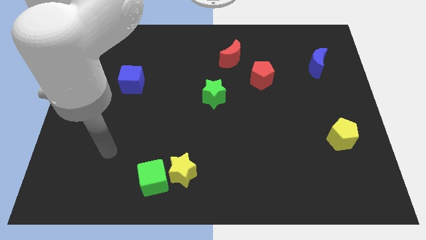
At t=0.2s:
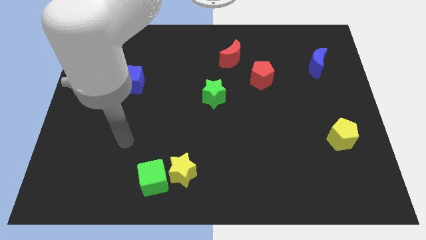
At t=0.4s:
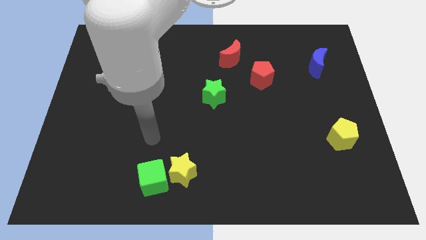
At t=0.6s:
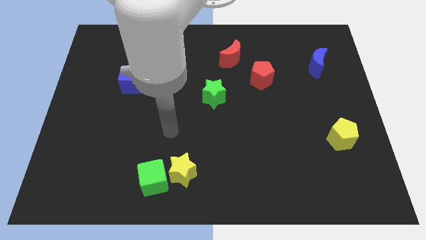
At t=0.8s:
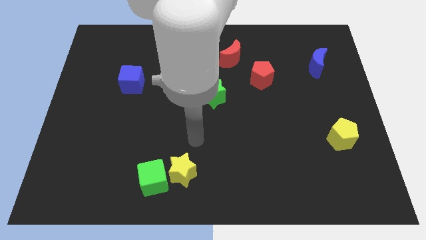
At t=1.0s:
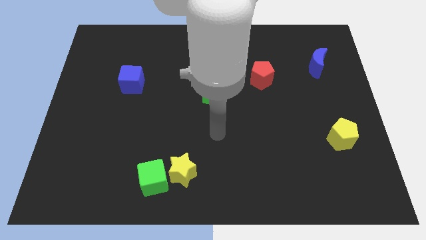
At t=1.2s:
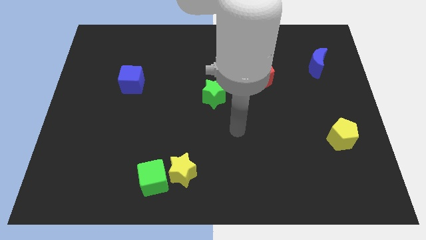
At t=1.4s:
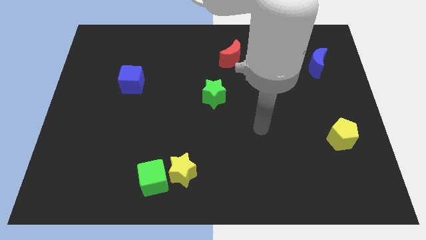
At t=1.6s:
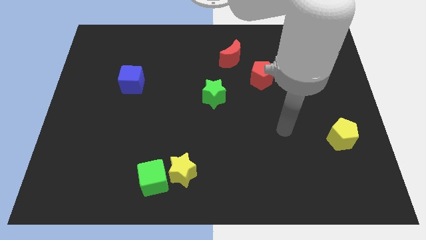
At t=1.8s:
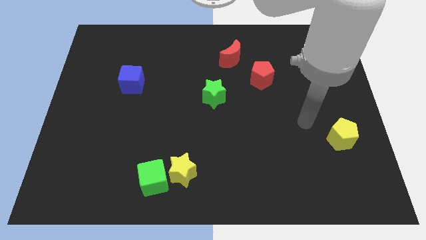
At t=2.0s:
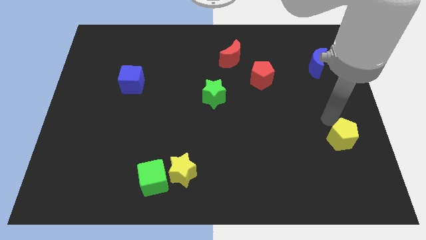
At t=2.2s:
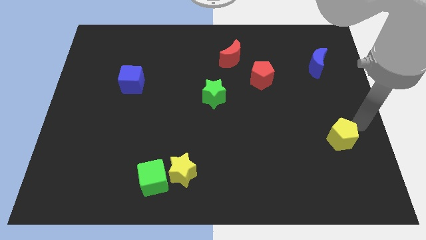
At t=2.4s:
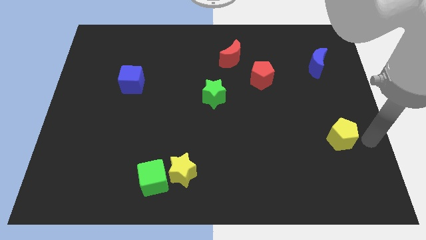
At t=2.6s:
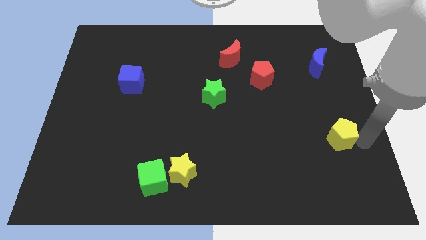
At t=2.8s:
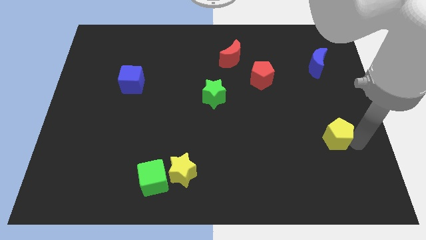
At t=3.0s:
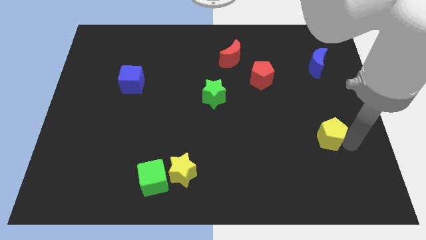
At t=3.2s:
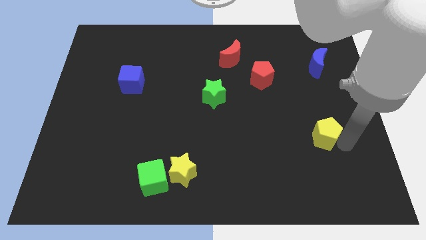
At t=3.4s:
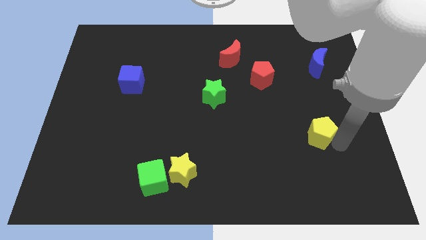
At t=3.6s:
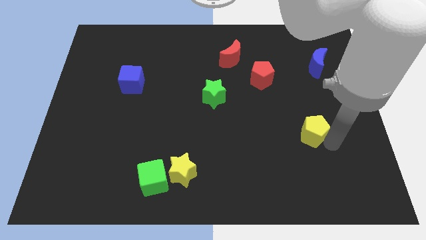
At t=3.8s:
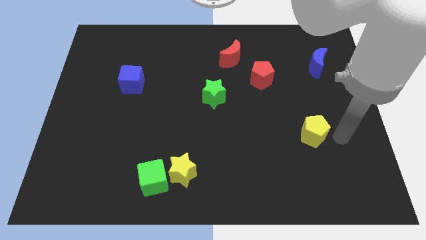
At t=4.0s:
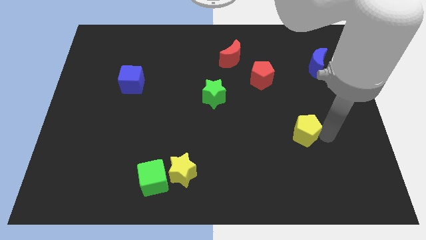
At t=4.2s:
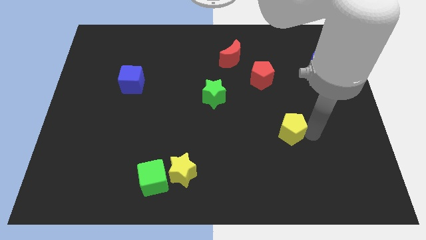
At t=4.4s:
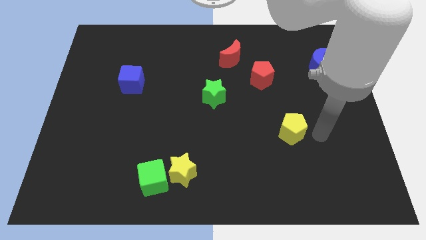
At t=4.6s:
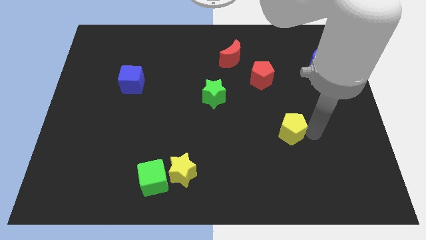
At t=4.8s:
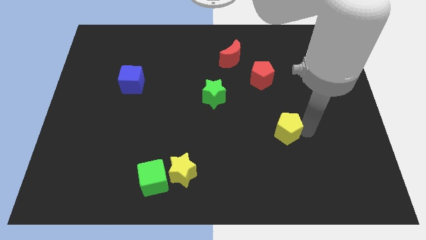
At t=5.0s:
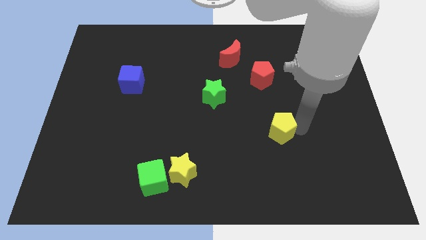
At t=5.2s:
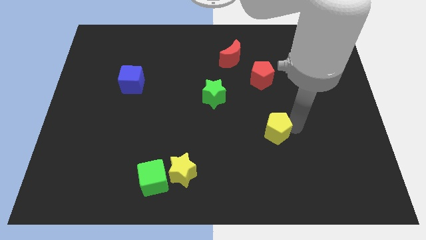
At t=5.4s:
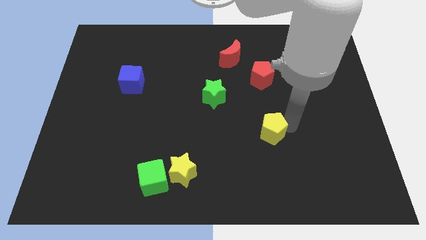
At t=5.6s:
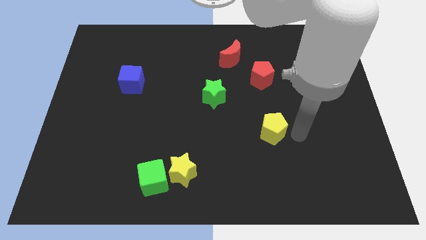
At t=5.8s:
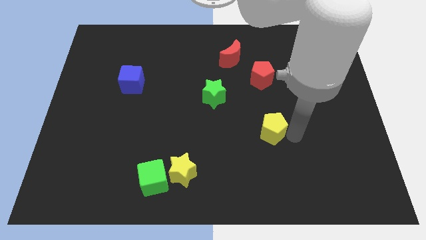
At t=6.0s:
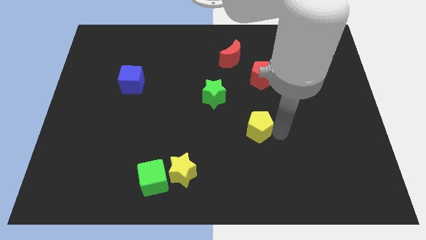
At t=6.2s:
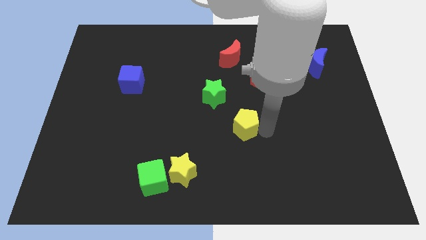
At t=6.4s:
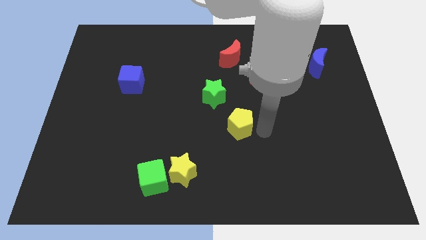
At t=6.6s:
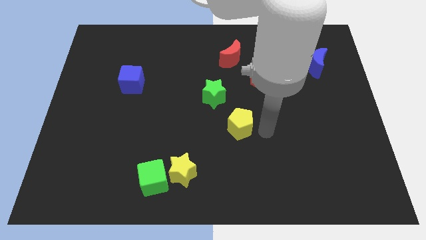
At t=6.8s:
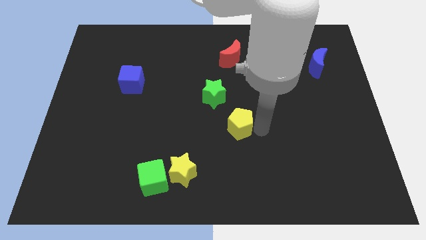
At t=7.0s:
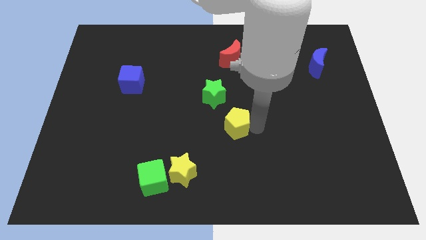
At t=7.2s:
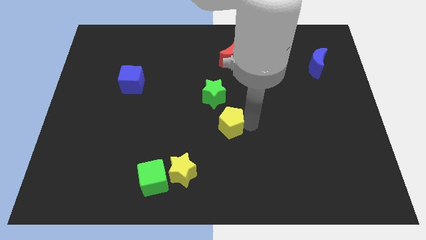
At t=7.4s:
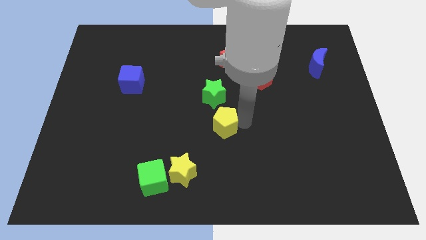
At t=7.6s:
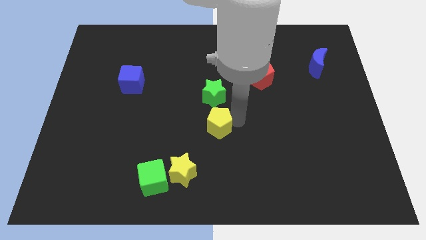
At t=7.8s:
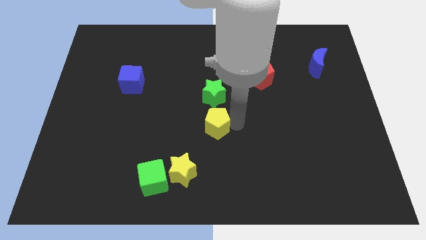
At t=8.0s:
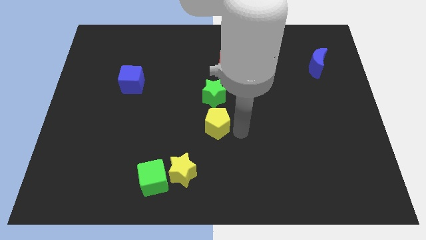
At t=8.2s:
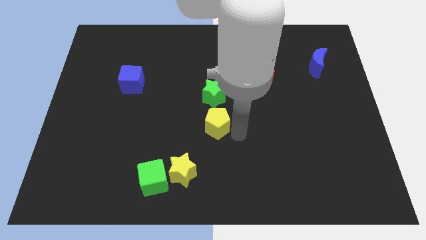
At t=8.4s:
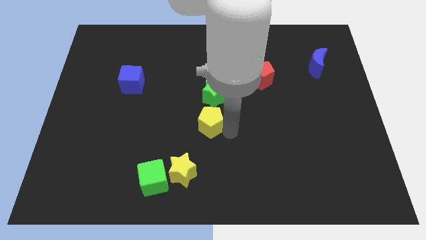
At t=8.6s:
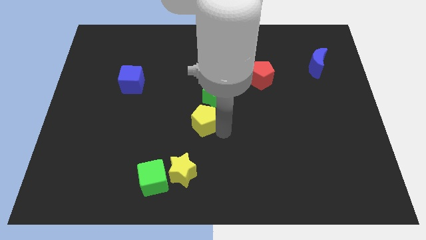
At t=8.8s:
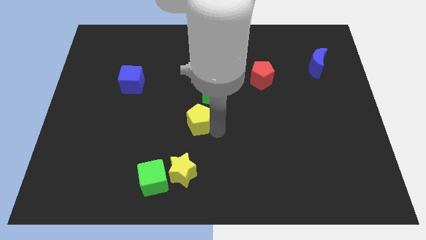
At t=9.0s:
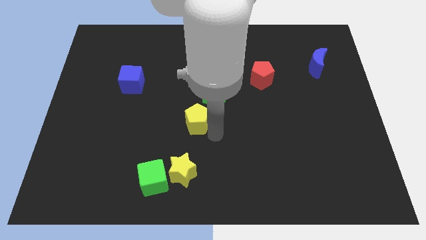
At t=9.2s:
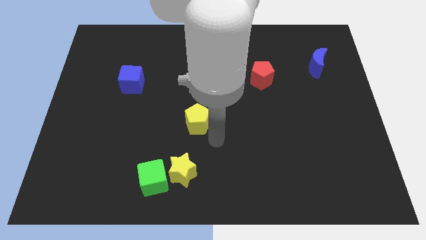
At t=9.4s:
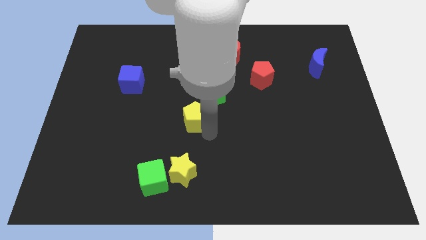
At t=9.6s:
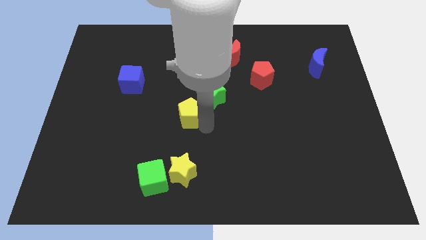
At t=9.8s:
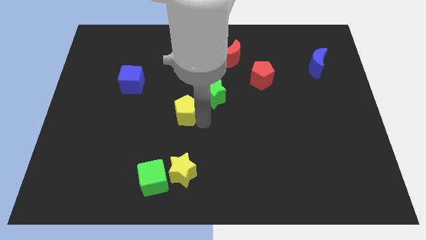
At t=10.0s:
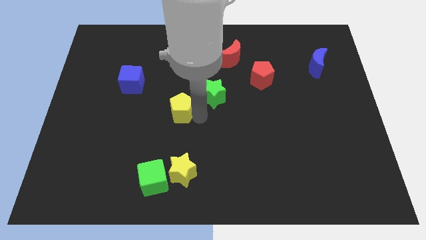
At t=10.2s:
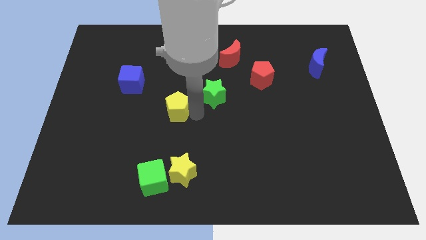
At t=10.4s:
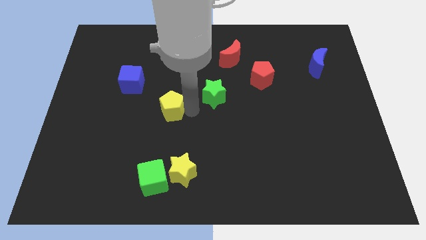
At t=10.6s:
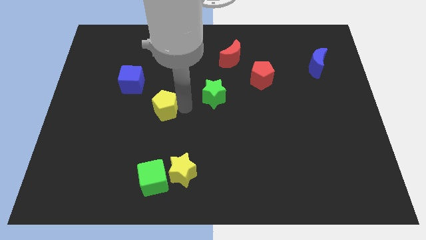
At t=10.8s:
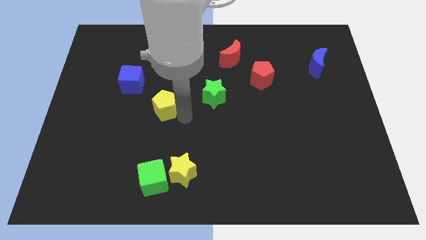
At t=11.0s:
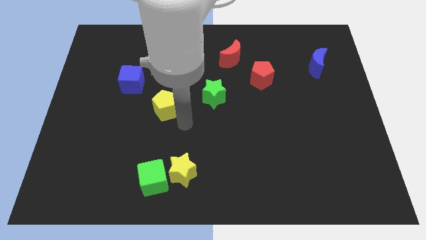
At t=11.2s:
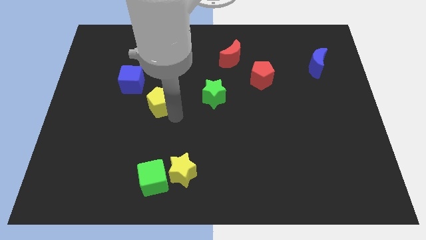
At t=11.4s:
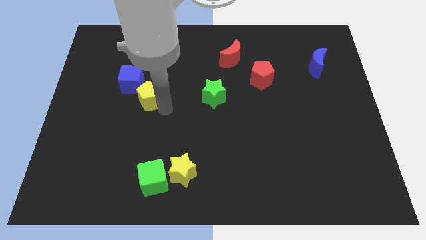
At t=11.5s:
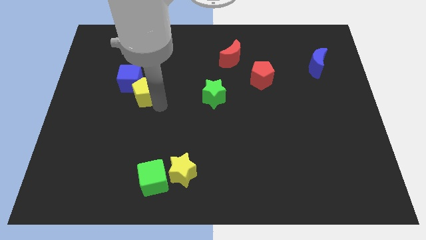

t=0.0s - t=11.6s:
push the yellow pentagon to the blue cube

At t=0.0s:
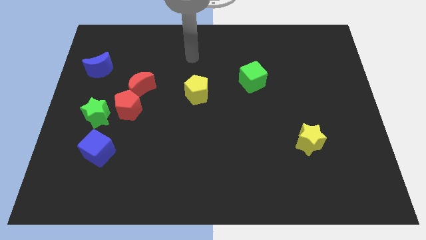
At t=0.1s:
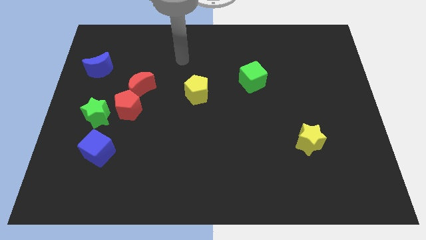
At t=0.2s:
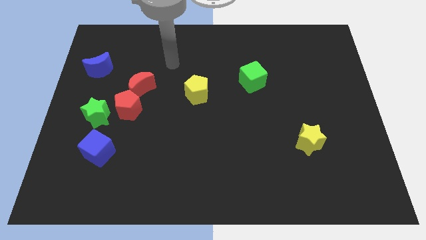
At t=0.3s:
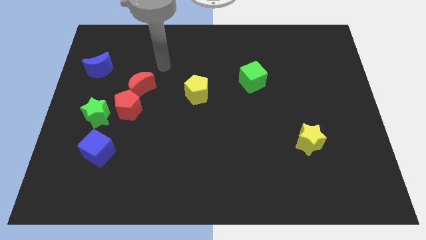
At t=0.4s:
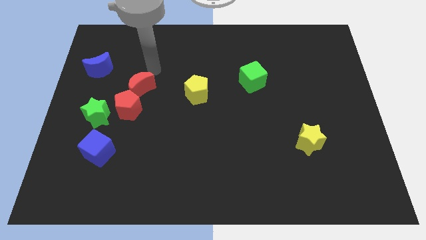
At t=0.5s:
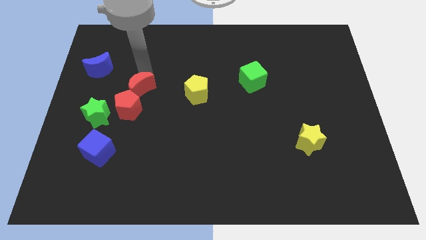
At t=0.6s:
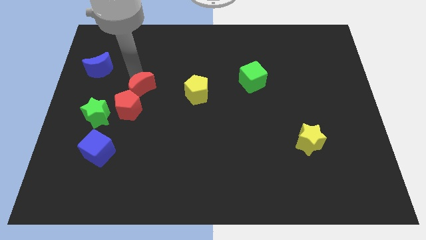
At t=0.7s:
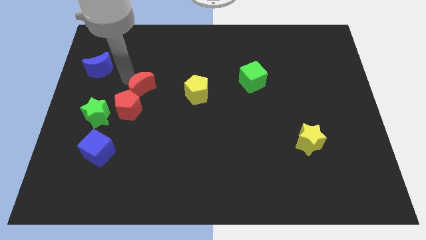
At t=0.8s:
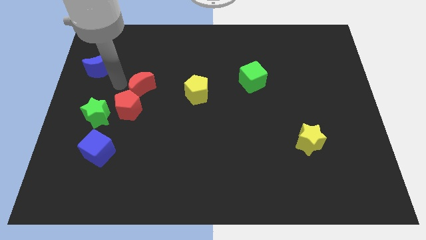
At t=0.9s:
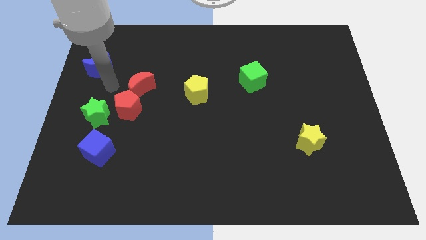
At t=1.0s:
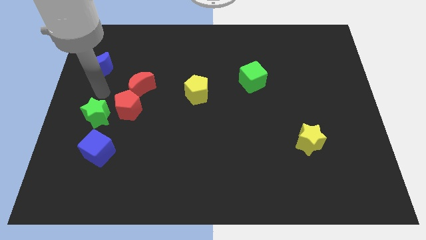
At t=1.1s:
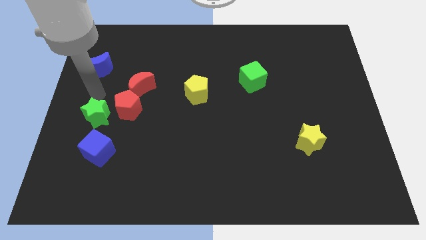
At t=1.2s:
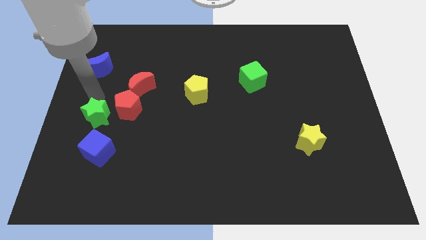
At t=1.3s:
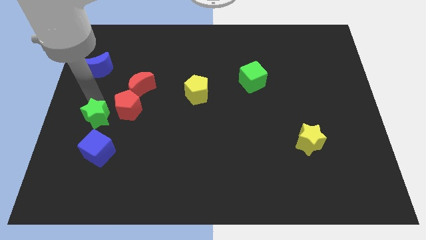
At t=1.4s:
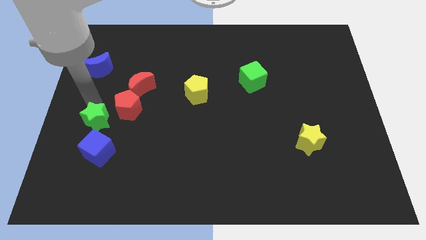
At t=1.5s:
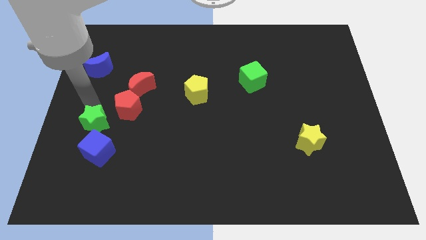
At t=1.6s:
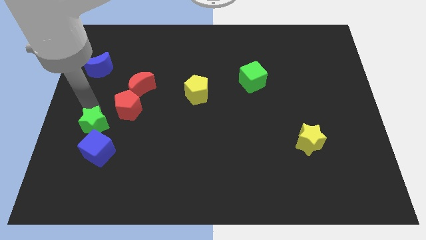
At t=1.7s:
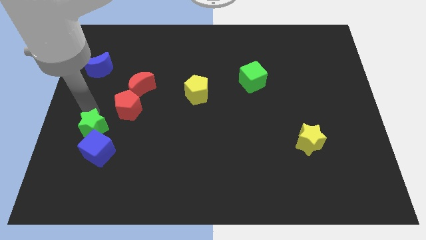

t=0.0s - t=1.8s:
move the green star close to the blue cube
